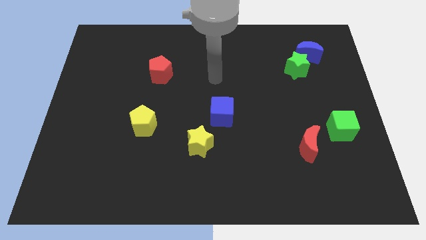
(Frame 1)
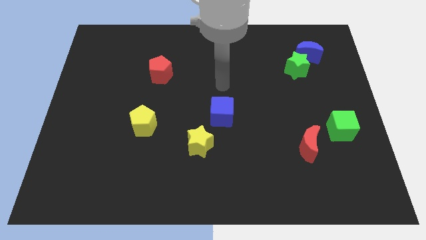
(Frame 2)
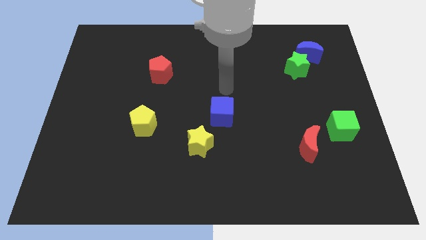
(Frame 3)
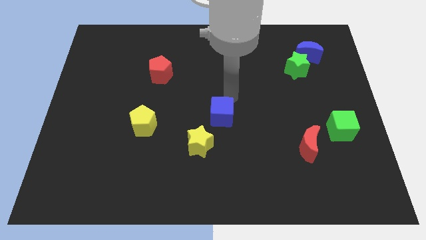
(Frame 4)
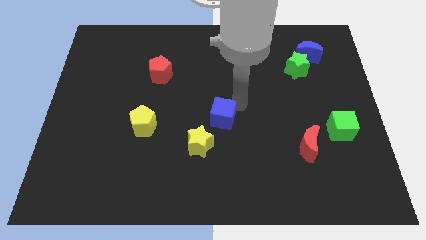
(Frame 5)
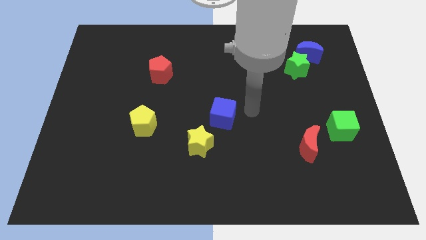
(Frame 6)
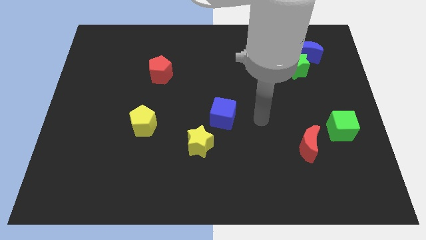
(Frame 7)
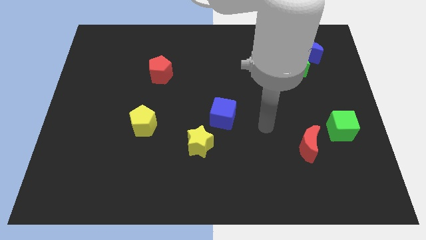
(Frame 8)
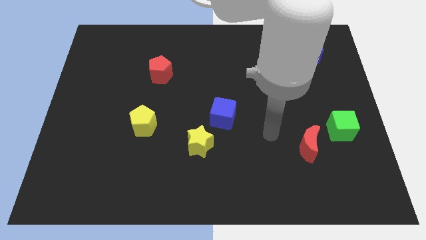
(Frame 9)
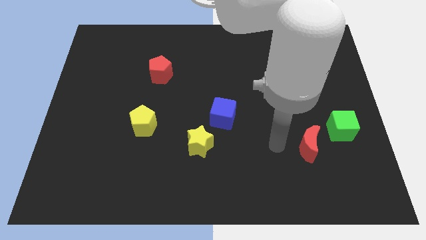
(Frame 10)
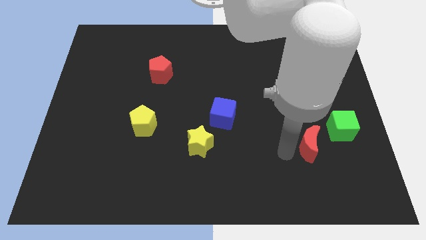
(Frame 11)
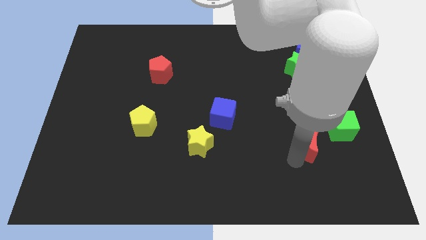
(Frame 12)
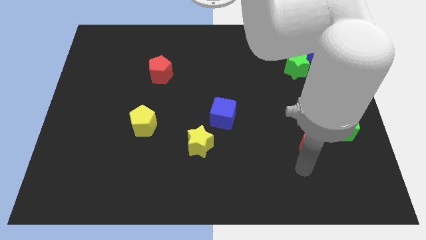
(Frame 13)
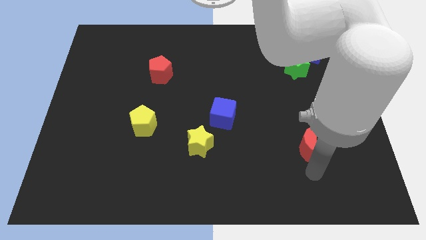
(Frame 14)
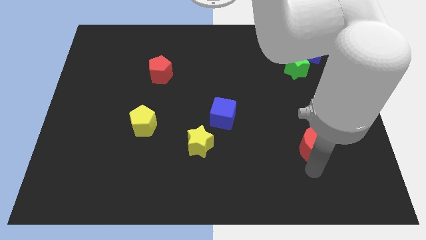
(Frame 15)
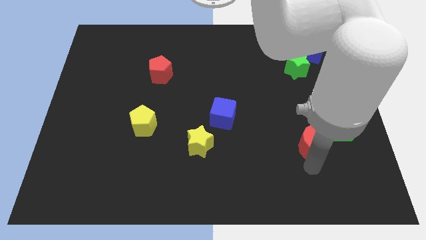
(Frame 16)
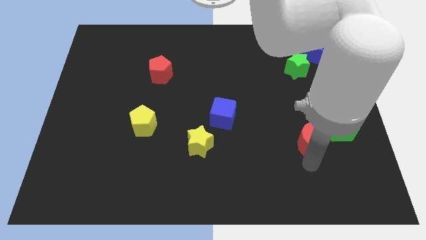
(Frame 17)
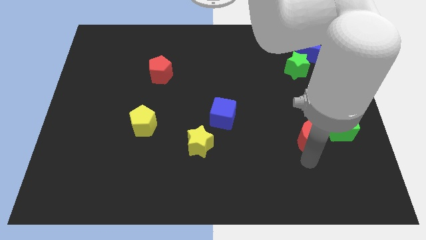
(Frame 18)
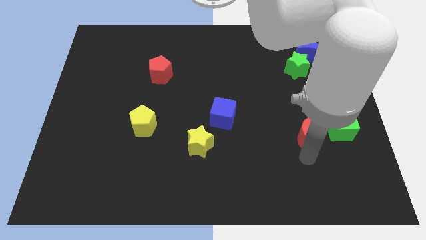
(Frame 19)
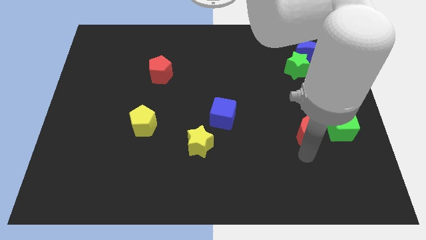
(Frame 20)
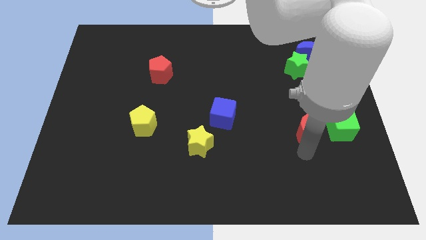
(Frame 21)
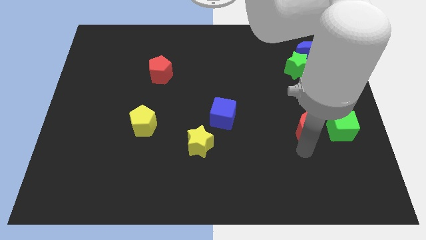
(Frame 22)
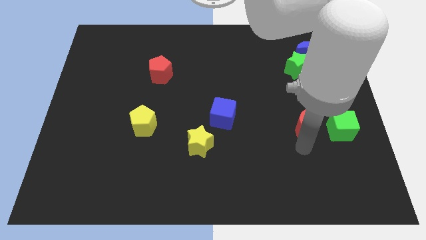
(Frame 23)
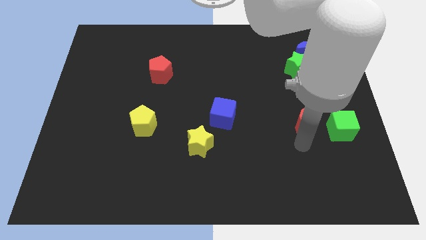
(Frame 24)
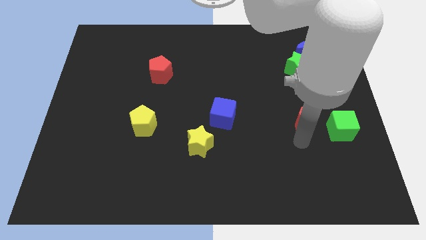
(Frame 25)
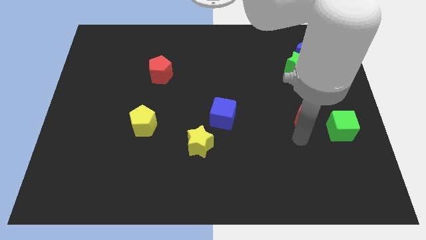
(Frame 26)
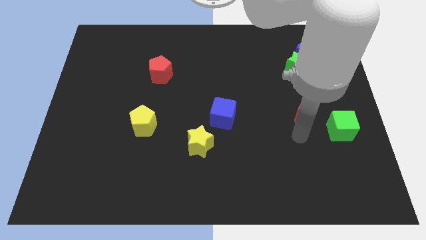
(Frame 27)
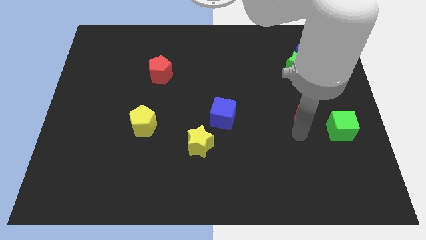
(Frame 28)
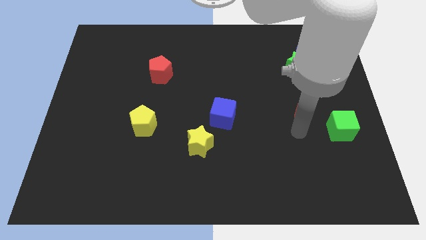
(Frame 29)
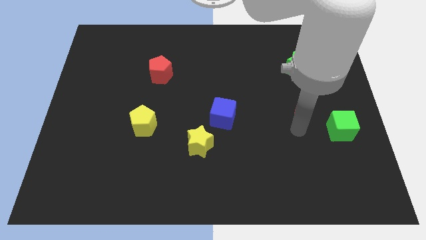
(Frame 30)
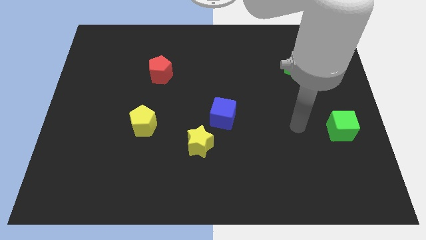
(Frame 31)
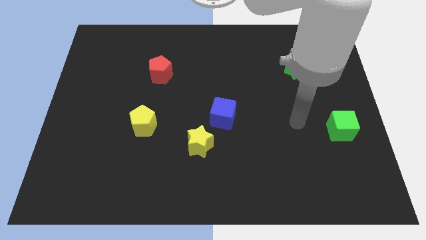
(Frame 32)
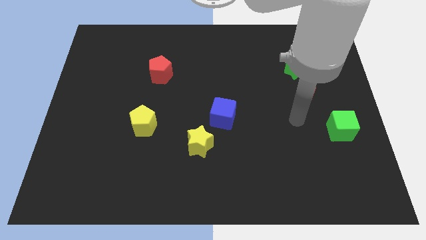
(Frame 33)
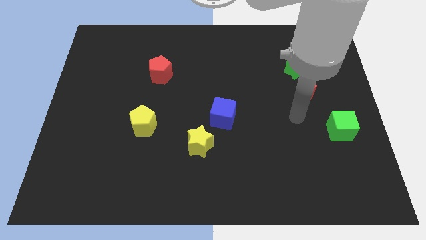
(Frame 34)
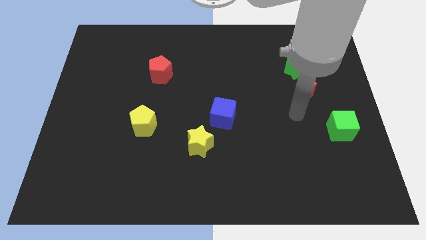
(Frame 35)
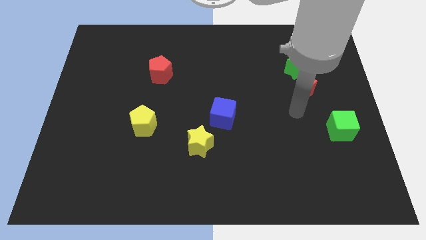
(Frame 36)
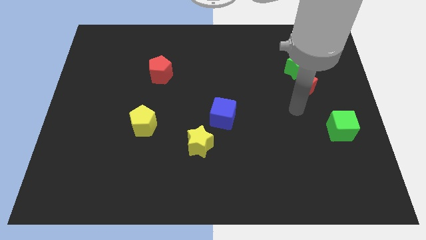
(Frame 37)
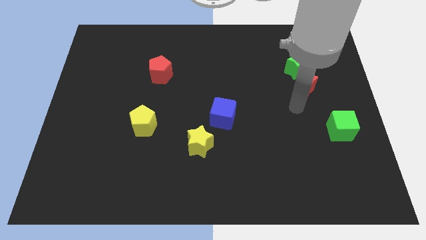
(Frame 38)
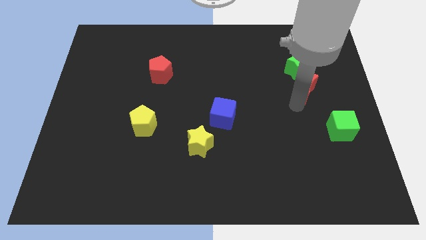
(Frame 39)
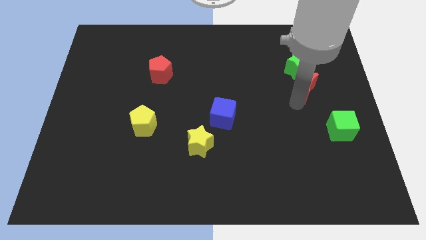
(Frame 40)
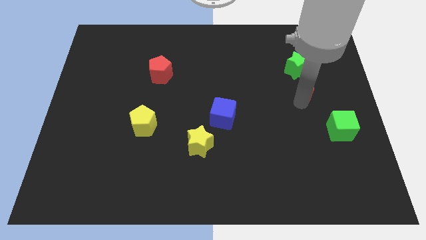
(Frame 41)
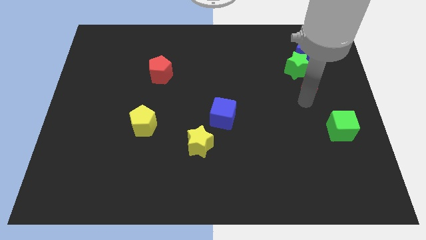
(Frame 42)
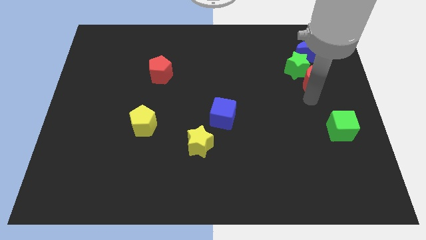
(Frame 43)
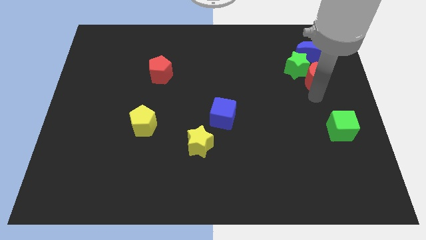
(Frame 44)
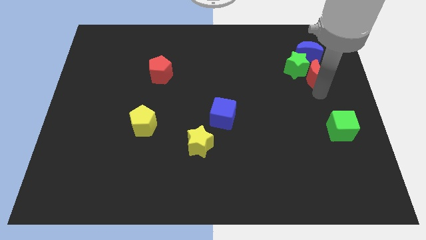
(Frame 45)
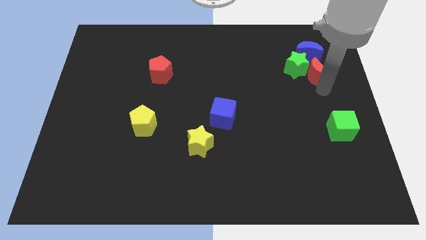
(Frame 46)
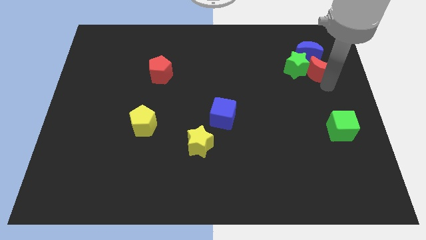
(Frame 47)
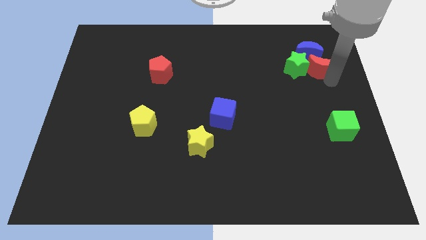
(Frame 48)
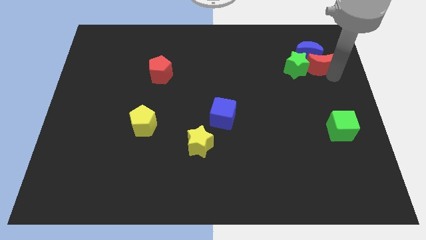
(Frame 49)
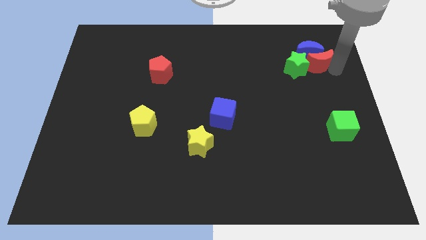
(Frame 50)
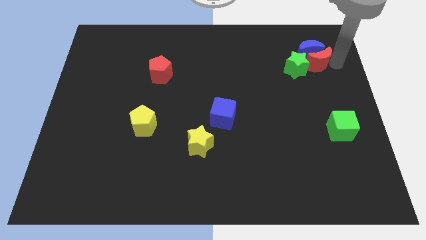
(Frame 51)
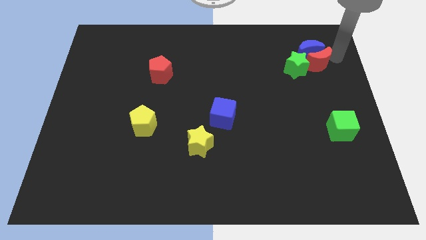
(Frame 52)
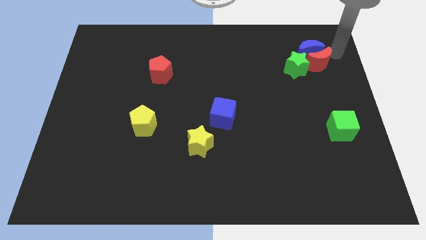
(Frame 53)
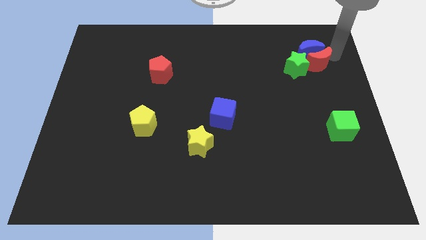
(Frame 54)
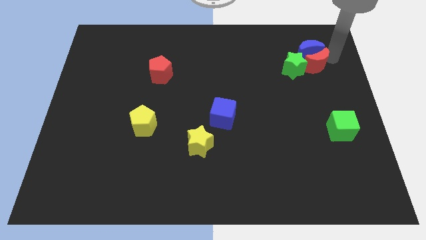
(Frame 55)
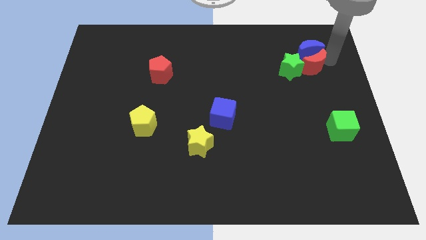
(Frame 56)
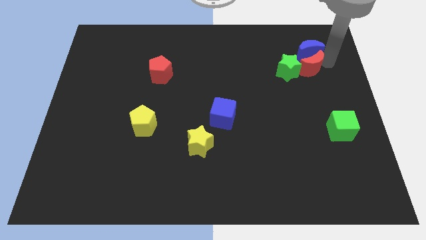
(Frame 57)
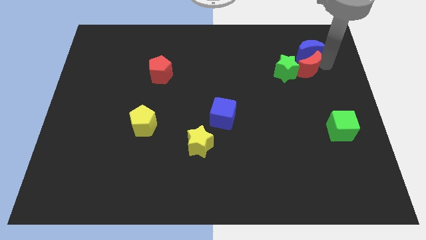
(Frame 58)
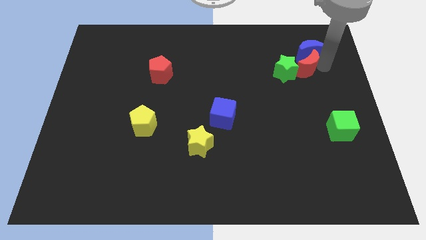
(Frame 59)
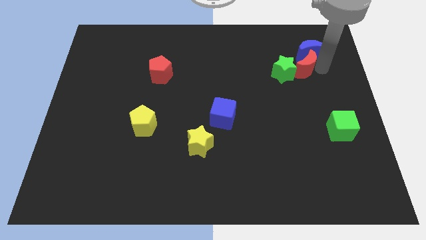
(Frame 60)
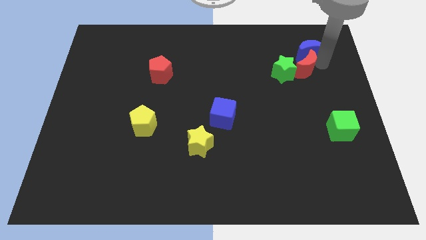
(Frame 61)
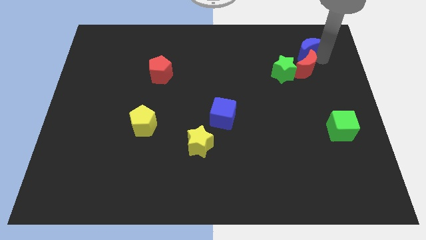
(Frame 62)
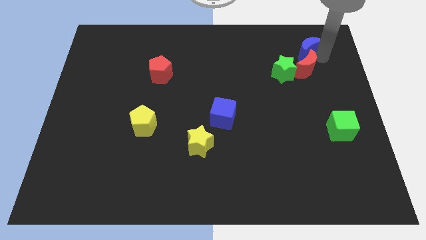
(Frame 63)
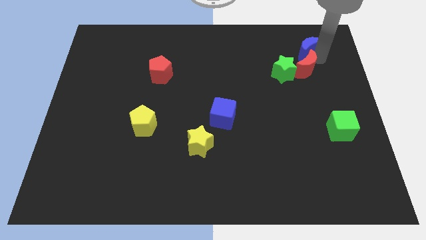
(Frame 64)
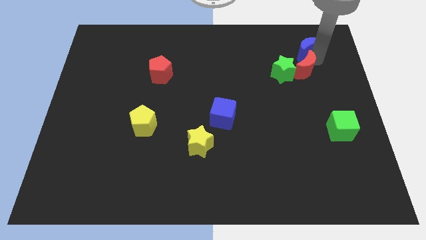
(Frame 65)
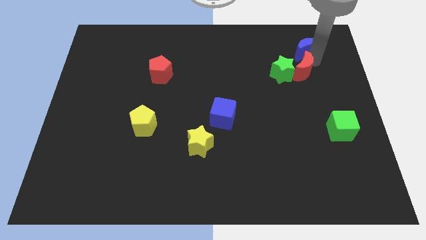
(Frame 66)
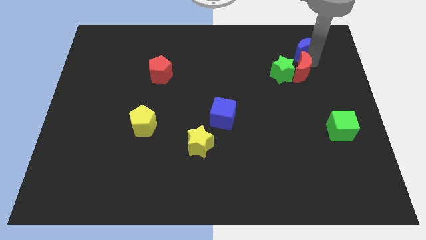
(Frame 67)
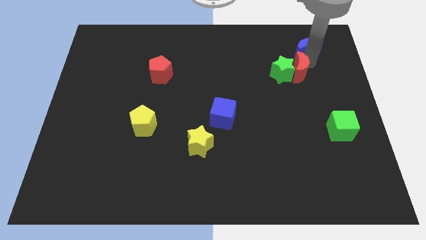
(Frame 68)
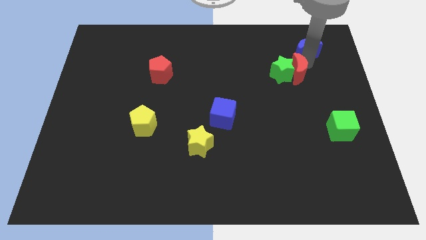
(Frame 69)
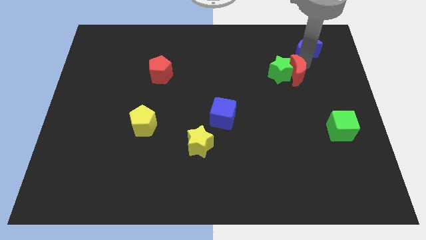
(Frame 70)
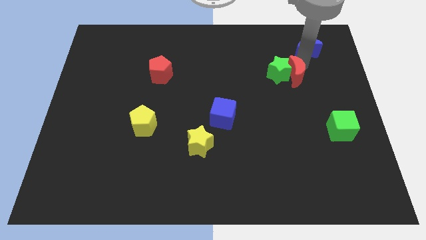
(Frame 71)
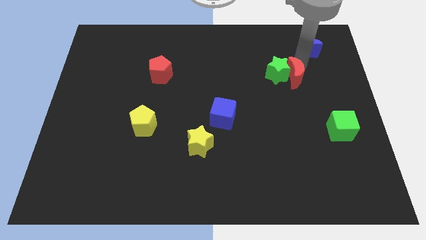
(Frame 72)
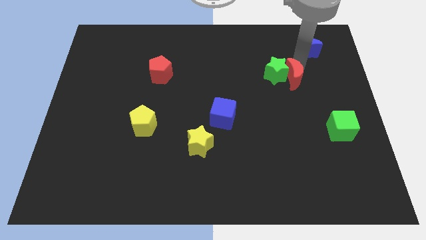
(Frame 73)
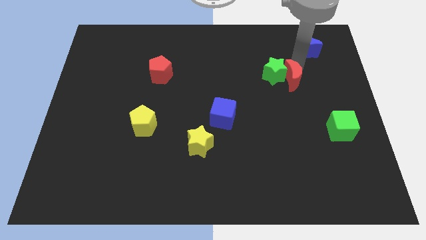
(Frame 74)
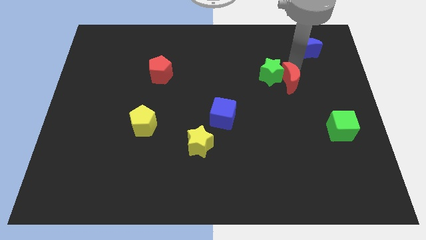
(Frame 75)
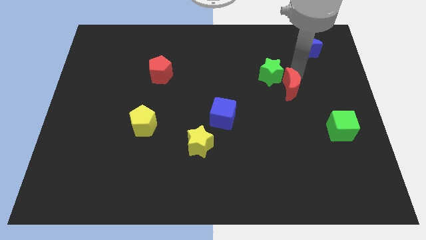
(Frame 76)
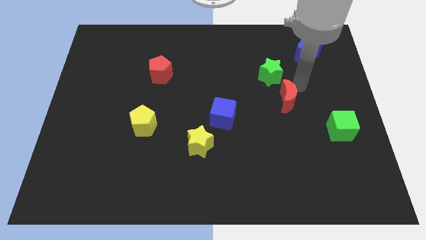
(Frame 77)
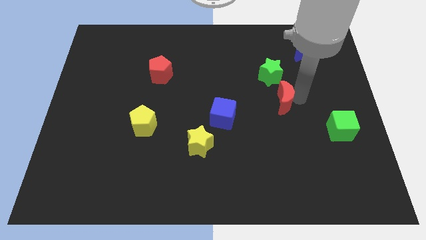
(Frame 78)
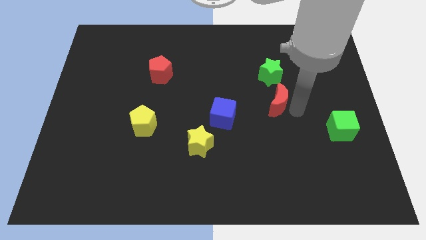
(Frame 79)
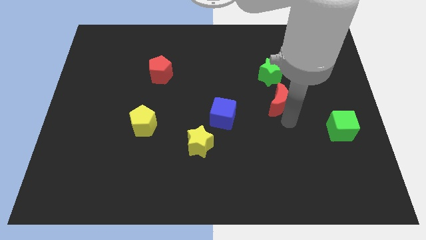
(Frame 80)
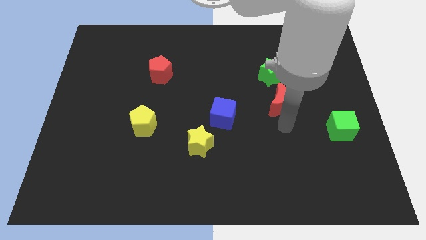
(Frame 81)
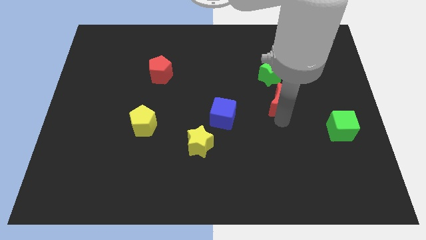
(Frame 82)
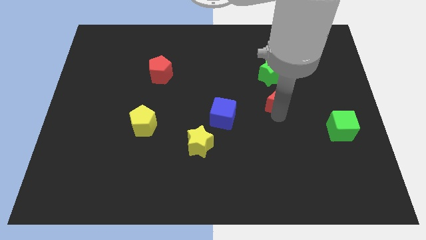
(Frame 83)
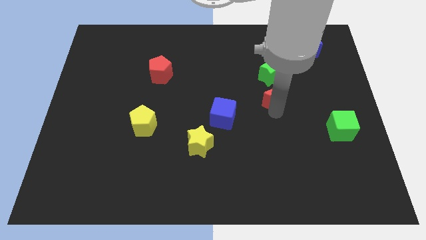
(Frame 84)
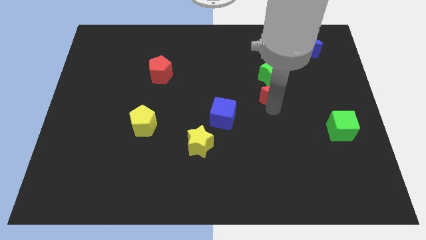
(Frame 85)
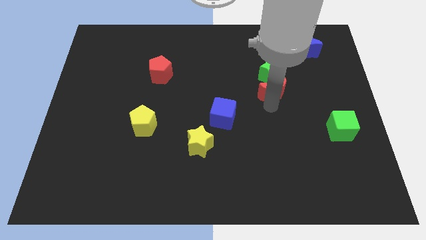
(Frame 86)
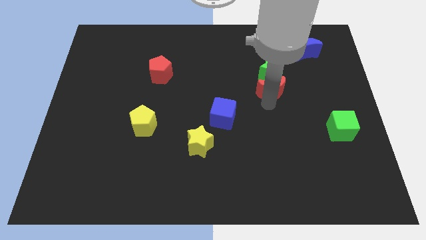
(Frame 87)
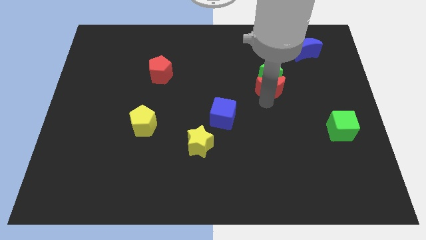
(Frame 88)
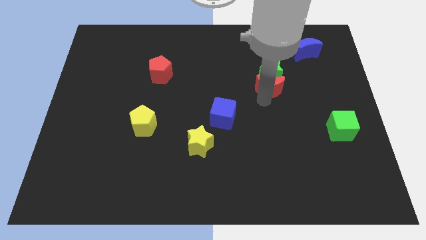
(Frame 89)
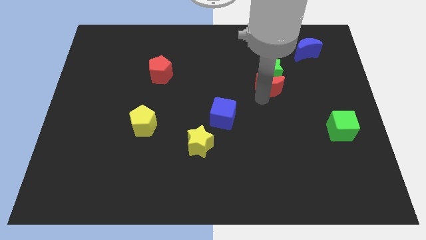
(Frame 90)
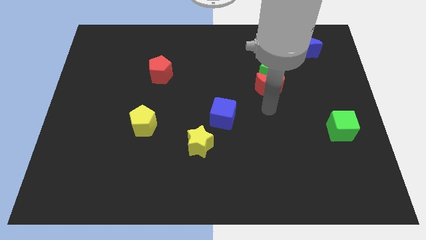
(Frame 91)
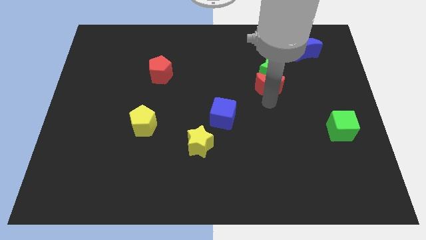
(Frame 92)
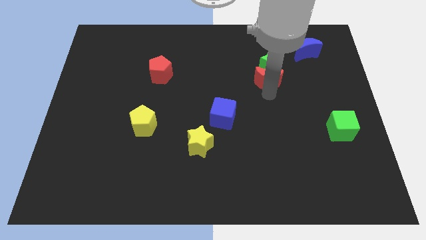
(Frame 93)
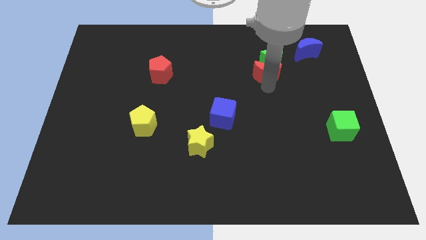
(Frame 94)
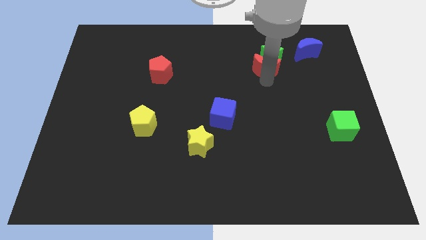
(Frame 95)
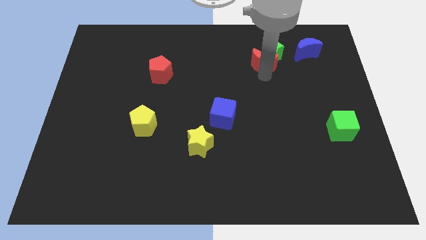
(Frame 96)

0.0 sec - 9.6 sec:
put the red moon to the left of the blue moon
